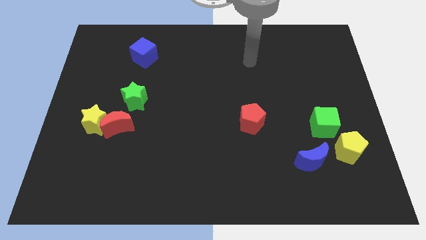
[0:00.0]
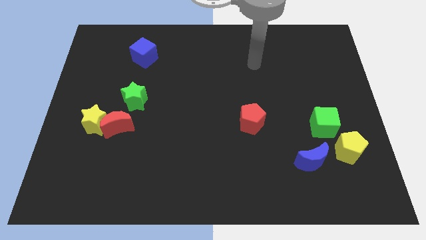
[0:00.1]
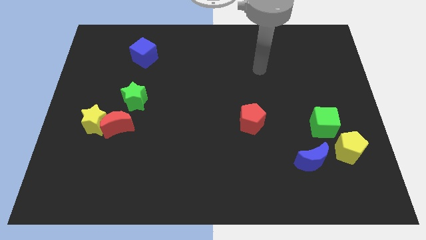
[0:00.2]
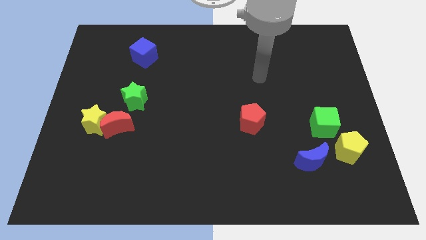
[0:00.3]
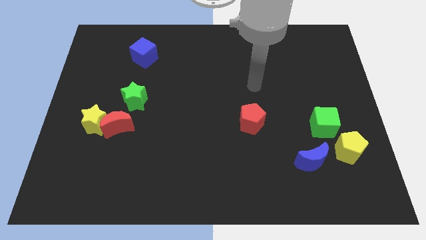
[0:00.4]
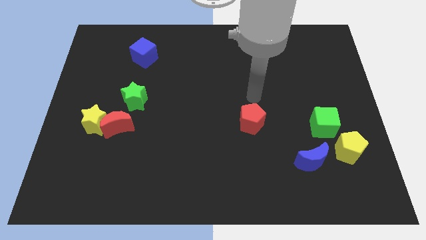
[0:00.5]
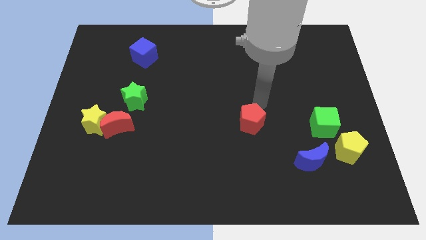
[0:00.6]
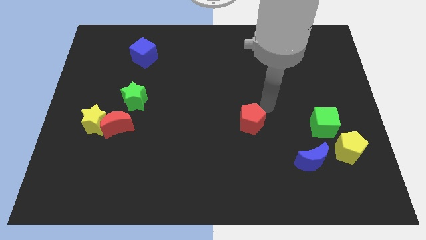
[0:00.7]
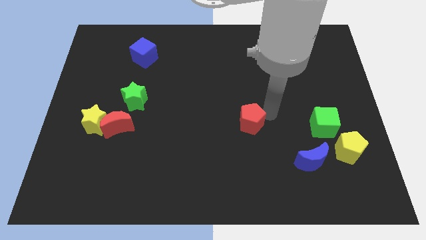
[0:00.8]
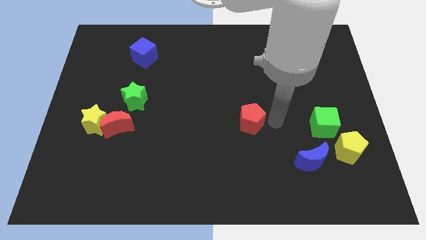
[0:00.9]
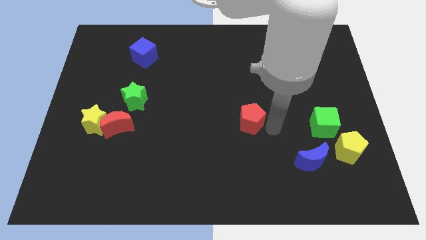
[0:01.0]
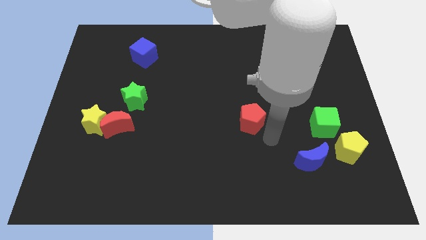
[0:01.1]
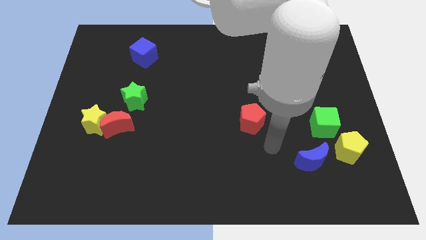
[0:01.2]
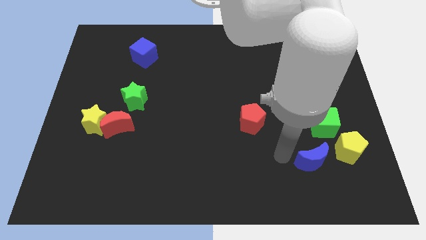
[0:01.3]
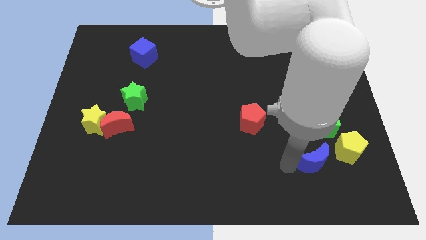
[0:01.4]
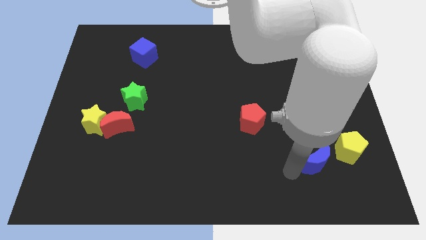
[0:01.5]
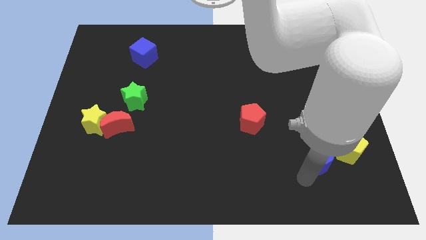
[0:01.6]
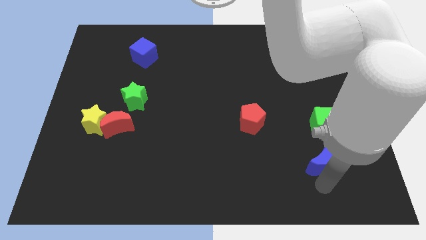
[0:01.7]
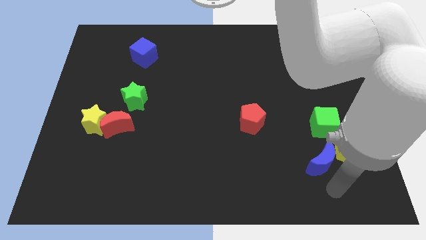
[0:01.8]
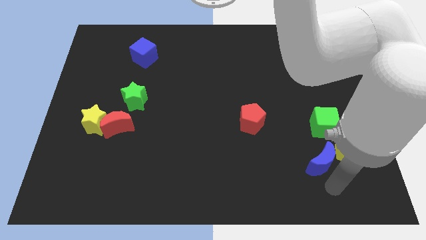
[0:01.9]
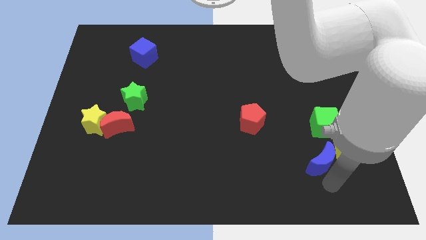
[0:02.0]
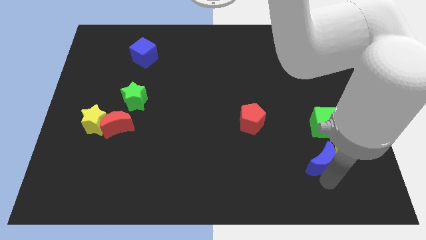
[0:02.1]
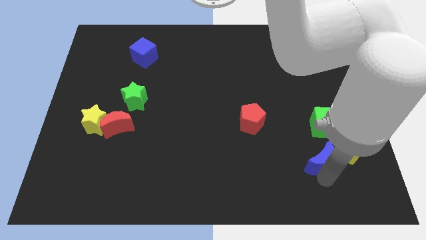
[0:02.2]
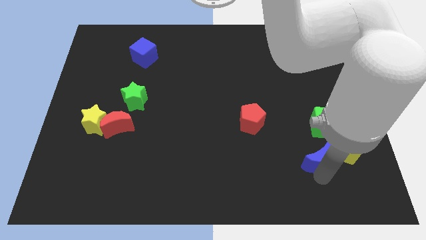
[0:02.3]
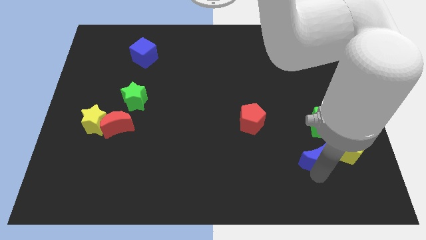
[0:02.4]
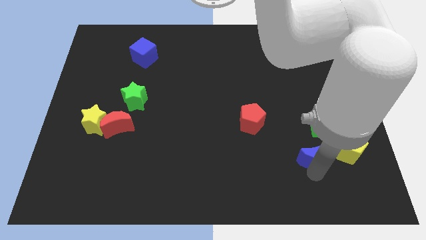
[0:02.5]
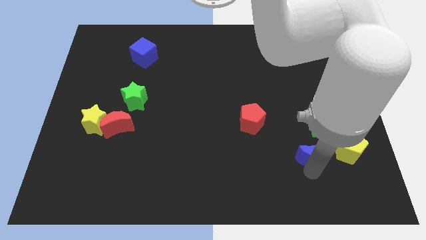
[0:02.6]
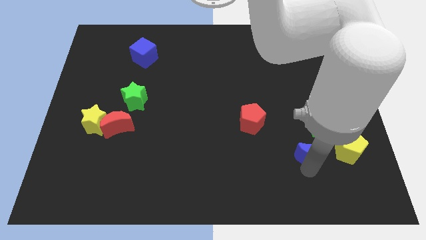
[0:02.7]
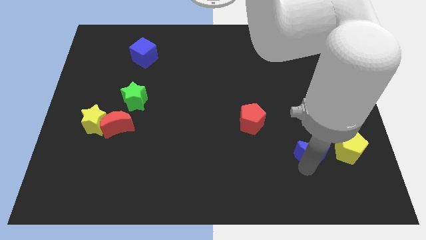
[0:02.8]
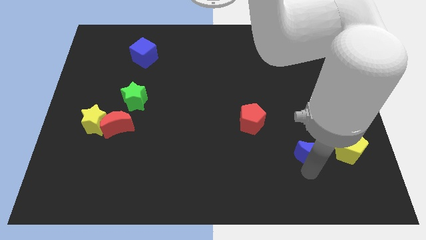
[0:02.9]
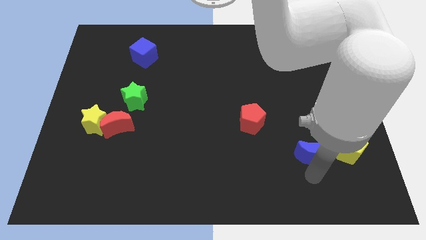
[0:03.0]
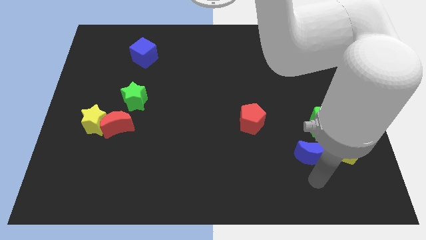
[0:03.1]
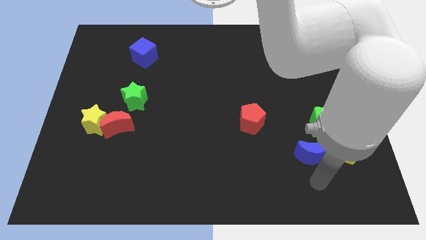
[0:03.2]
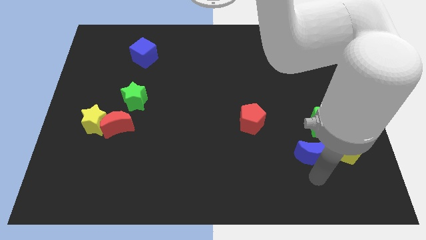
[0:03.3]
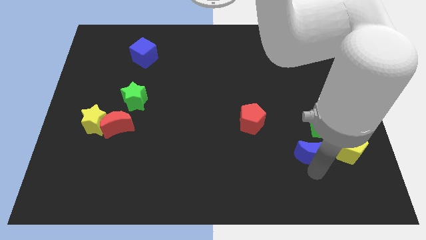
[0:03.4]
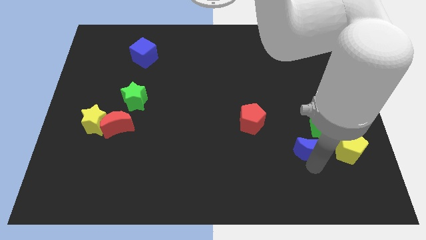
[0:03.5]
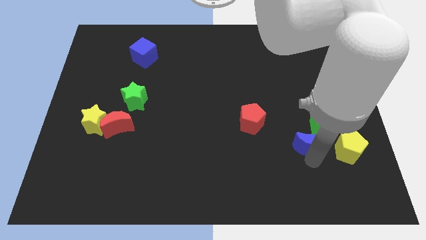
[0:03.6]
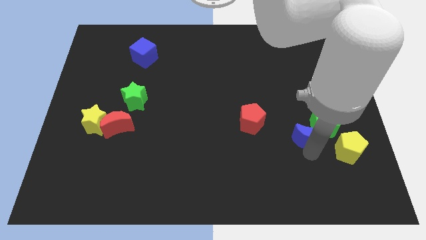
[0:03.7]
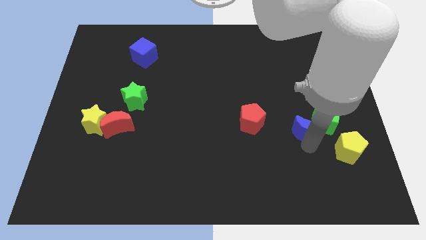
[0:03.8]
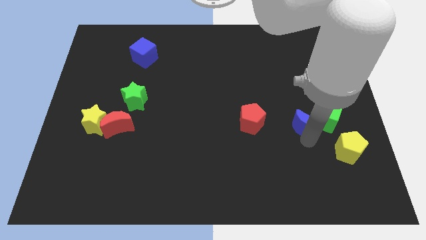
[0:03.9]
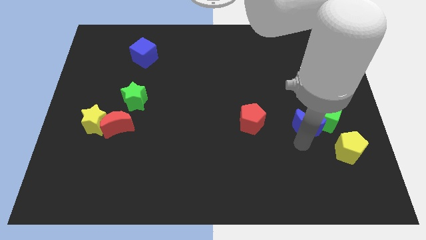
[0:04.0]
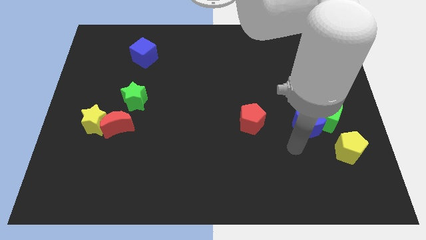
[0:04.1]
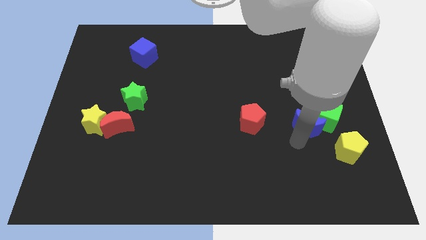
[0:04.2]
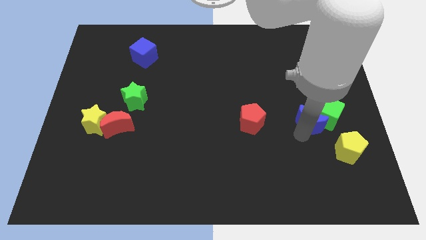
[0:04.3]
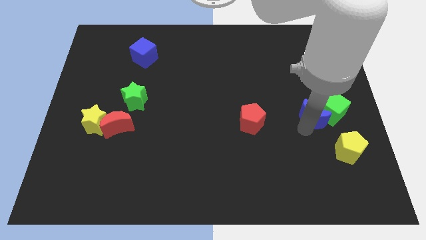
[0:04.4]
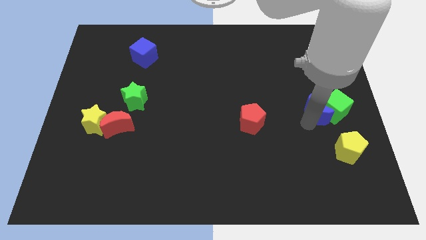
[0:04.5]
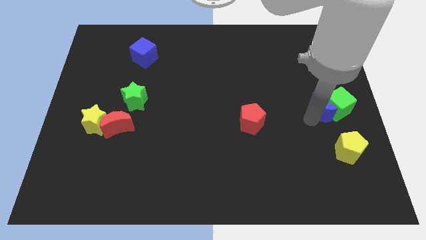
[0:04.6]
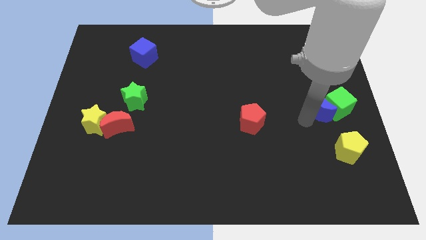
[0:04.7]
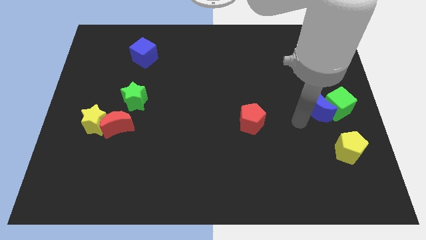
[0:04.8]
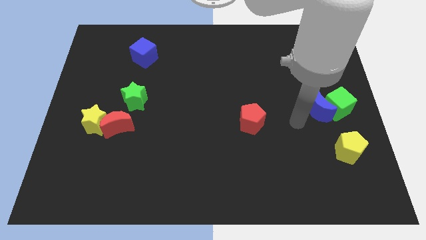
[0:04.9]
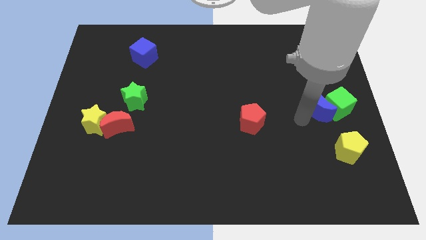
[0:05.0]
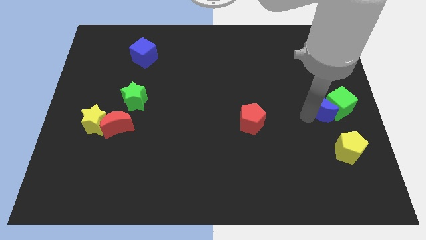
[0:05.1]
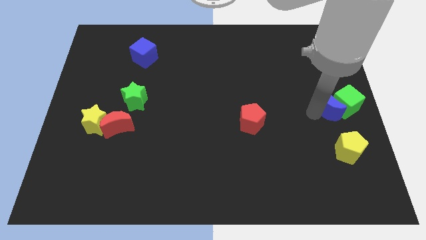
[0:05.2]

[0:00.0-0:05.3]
slide the blue moon to the right side

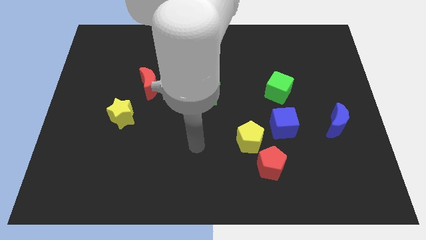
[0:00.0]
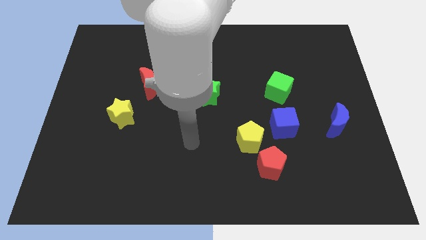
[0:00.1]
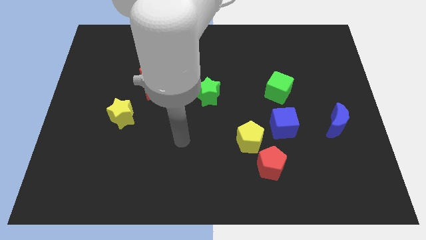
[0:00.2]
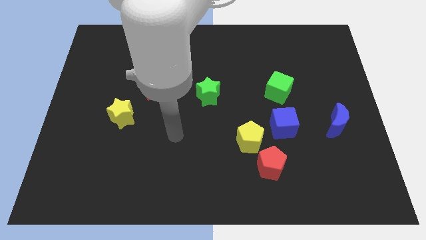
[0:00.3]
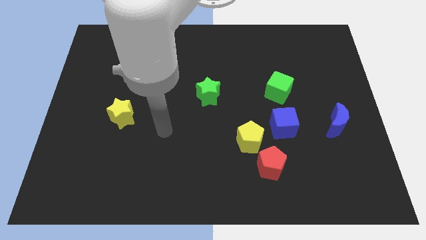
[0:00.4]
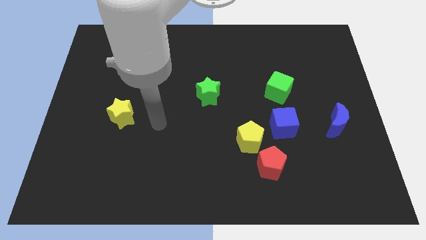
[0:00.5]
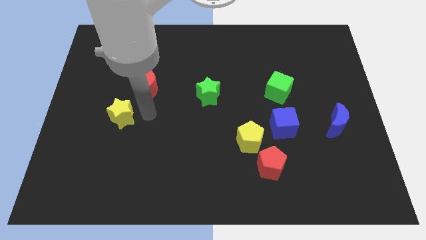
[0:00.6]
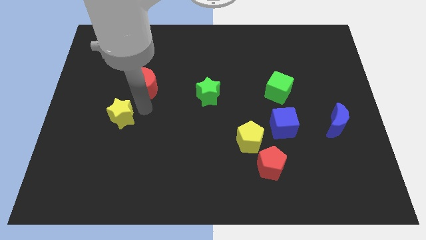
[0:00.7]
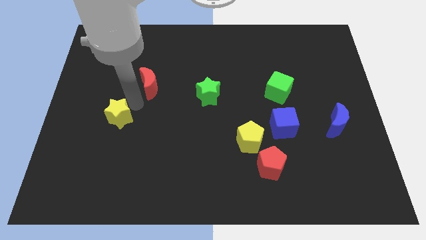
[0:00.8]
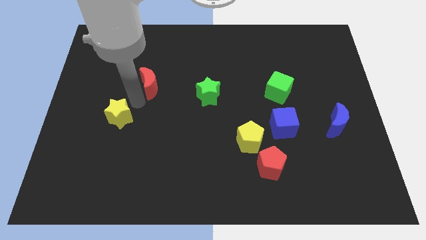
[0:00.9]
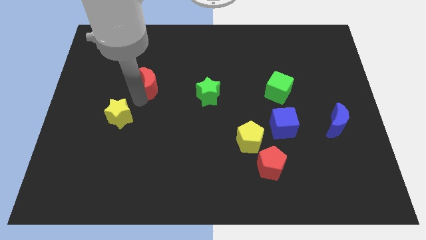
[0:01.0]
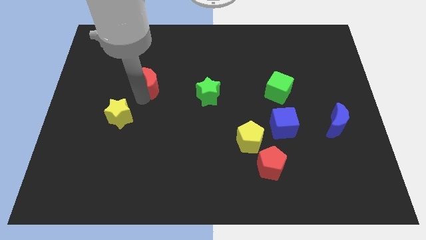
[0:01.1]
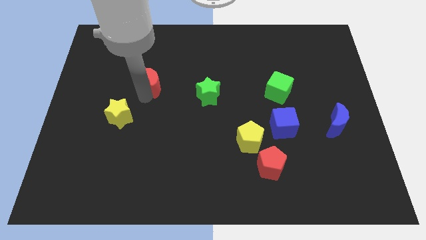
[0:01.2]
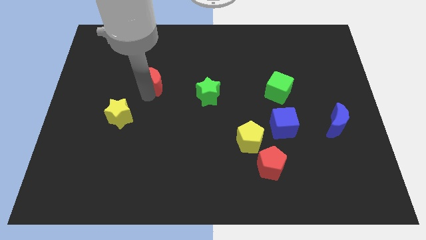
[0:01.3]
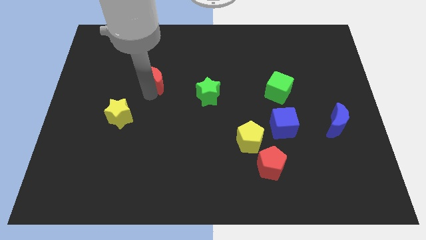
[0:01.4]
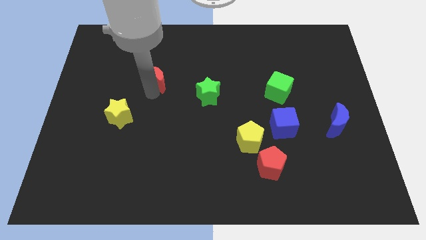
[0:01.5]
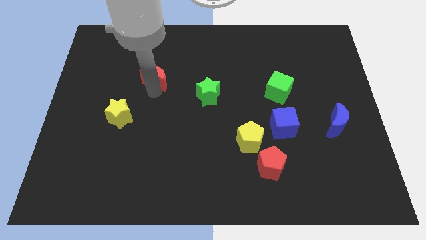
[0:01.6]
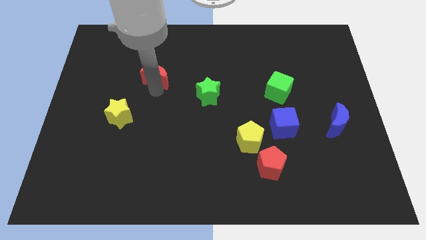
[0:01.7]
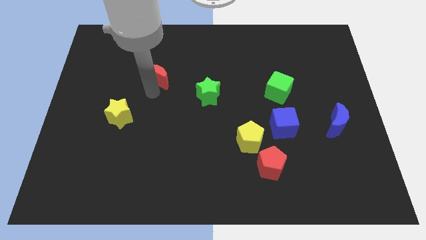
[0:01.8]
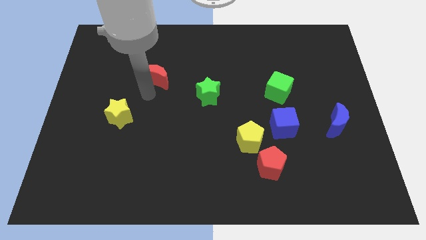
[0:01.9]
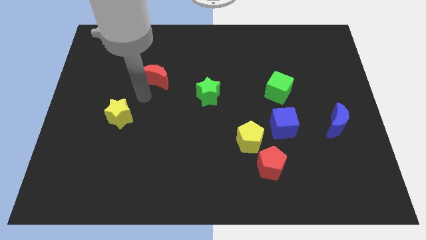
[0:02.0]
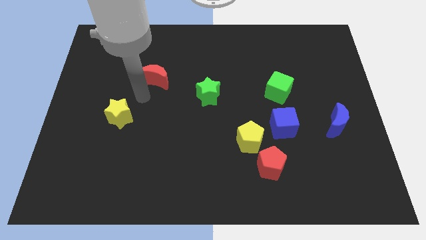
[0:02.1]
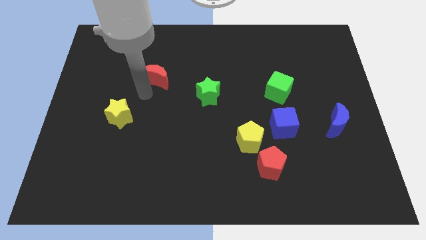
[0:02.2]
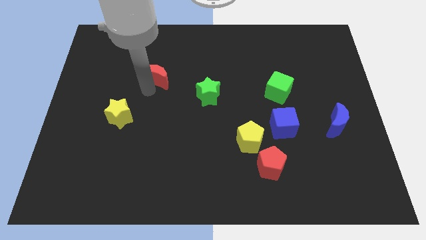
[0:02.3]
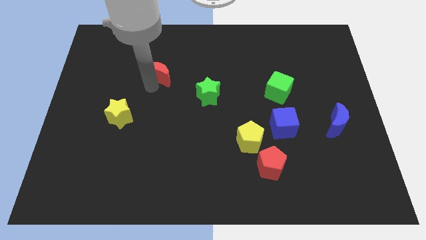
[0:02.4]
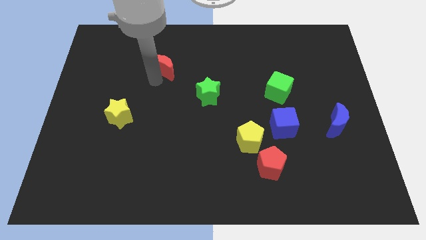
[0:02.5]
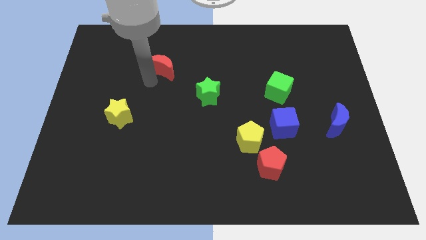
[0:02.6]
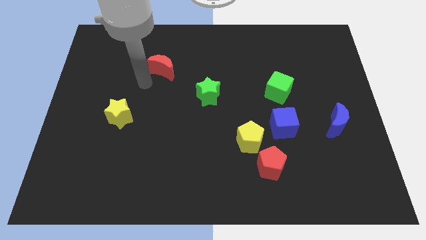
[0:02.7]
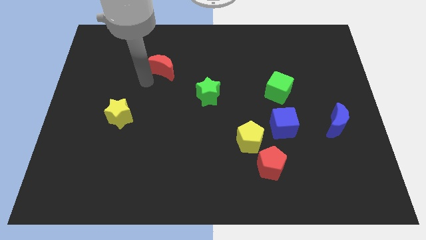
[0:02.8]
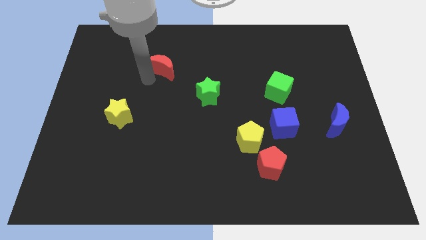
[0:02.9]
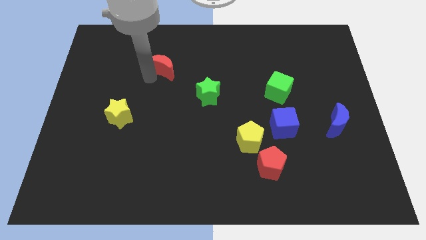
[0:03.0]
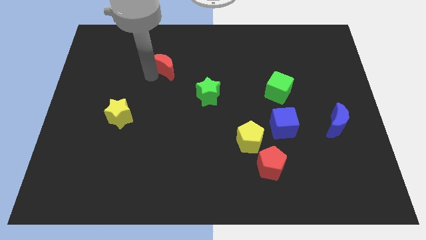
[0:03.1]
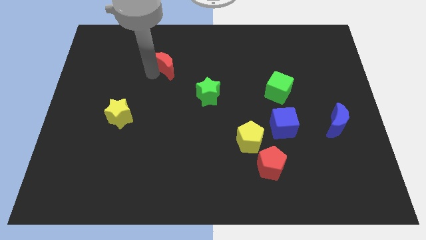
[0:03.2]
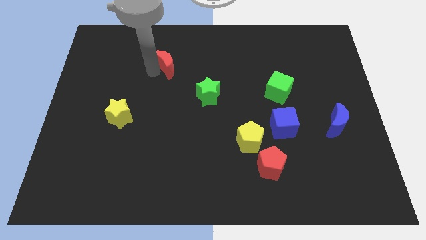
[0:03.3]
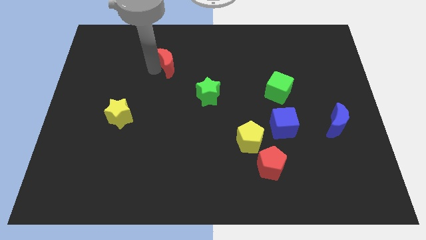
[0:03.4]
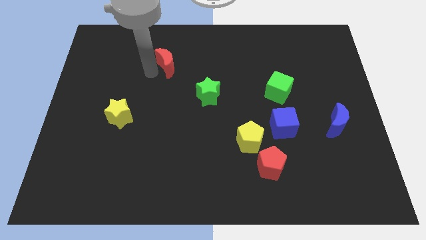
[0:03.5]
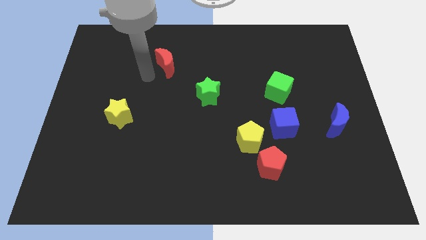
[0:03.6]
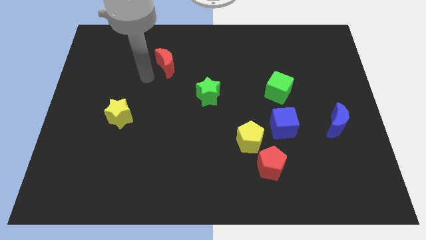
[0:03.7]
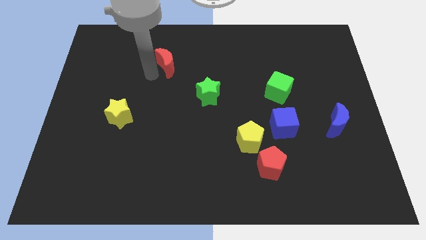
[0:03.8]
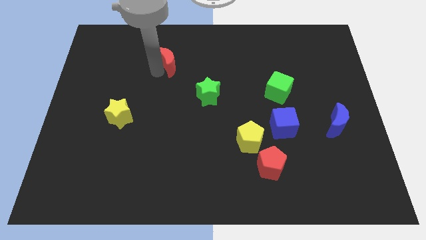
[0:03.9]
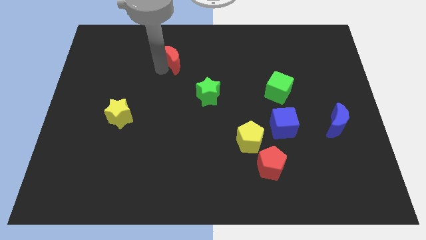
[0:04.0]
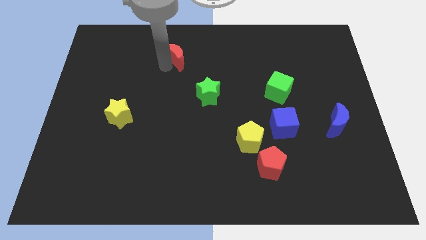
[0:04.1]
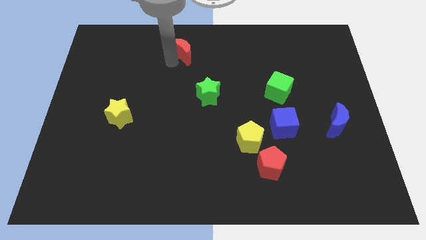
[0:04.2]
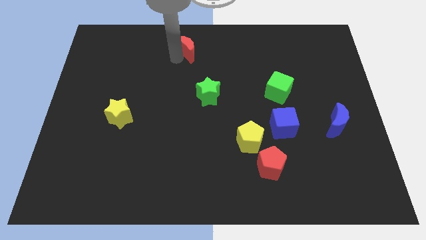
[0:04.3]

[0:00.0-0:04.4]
push the red moon to the towards your base
